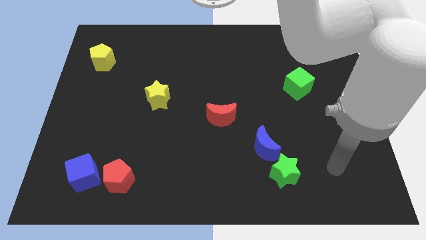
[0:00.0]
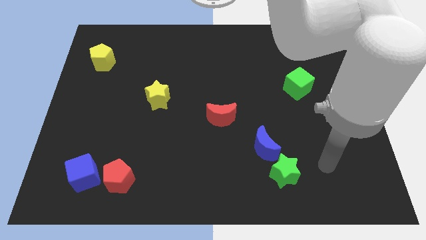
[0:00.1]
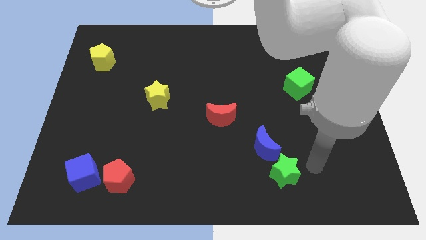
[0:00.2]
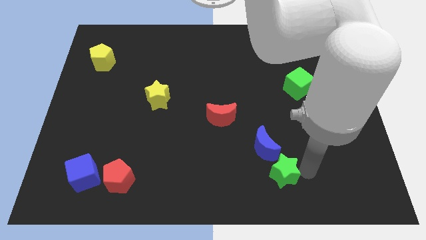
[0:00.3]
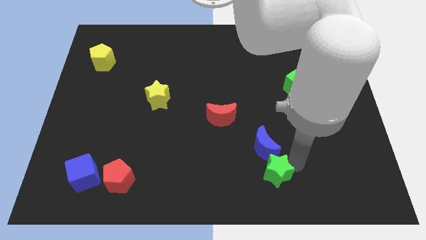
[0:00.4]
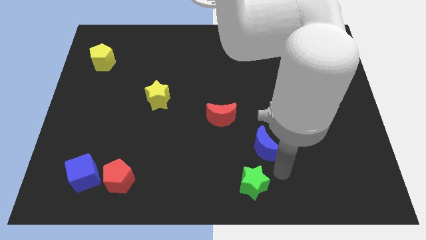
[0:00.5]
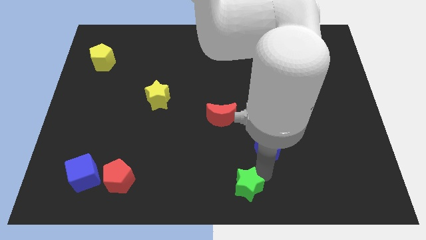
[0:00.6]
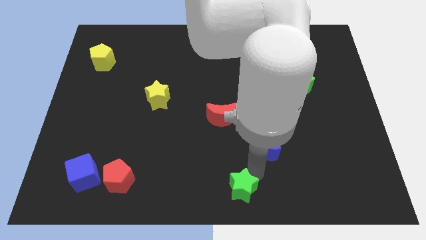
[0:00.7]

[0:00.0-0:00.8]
pull the blue moon apart from the green star

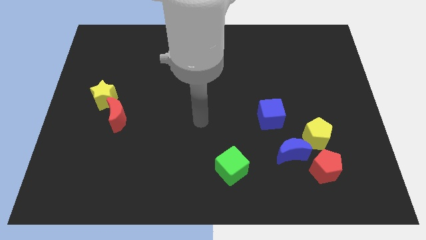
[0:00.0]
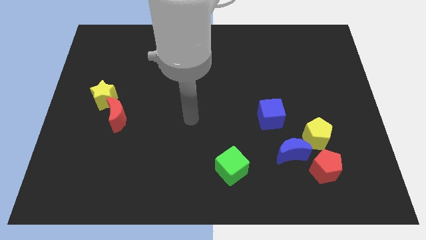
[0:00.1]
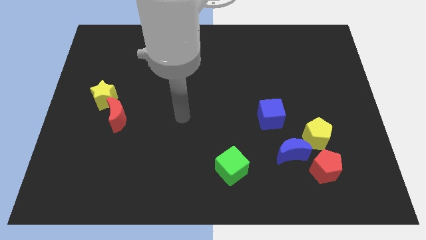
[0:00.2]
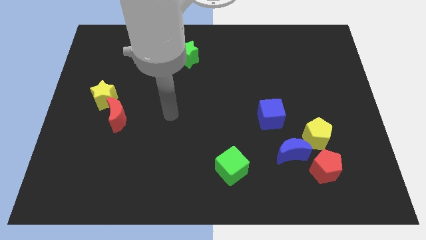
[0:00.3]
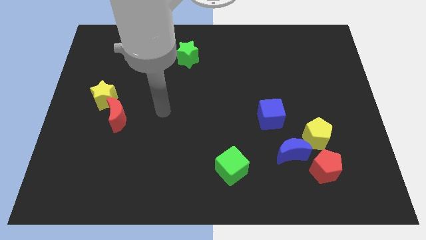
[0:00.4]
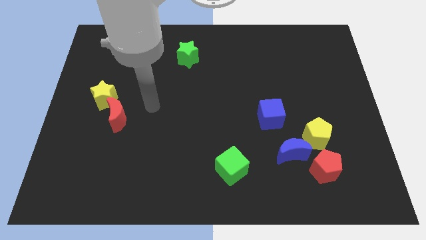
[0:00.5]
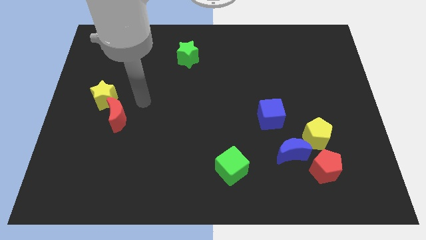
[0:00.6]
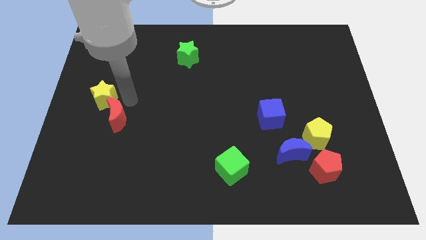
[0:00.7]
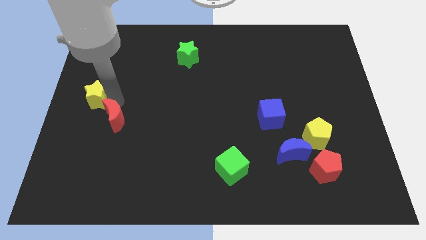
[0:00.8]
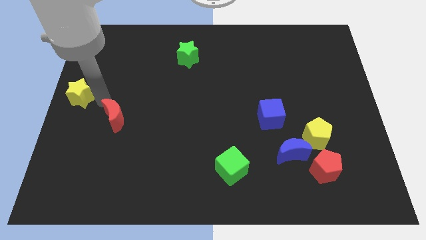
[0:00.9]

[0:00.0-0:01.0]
pull the red moon apart from the yellow star

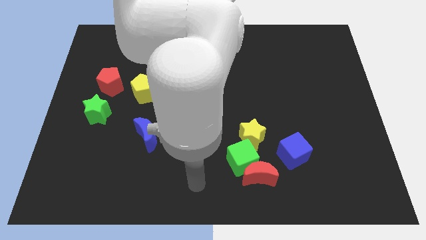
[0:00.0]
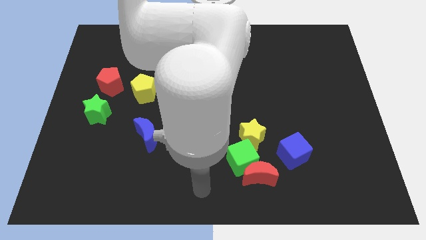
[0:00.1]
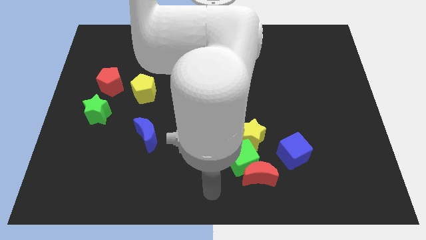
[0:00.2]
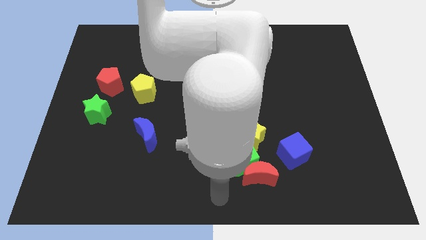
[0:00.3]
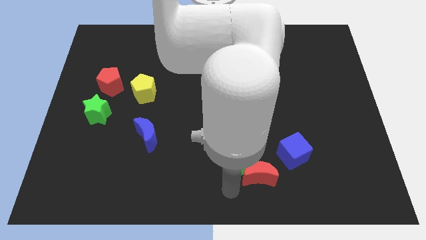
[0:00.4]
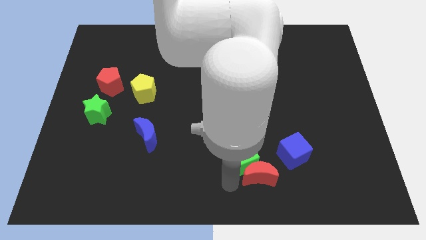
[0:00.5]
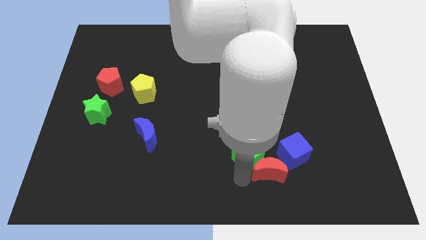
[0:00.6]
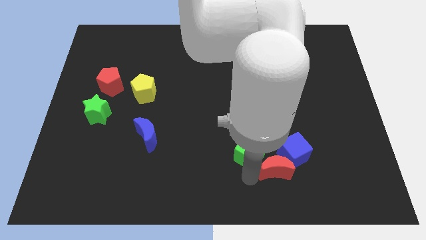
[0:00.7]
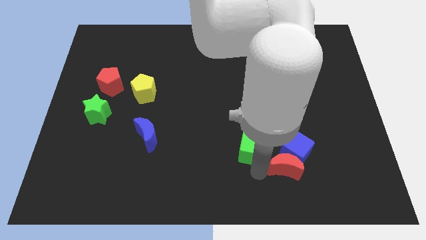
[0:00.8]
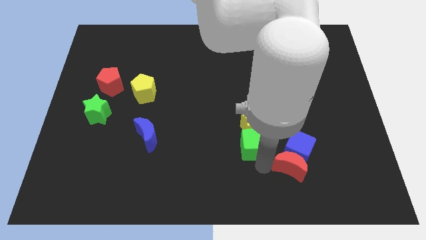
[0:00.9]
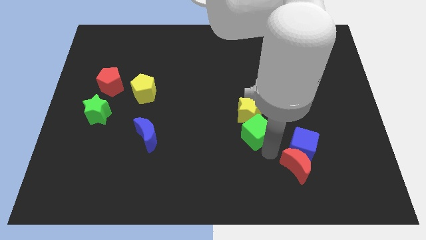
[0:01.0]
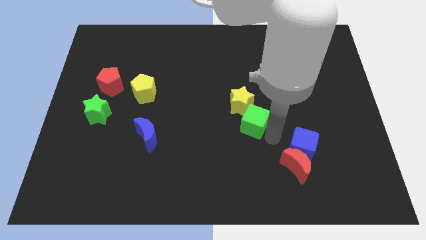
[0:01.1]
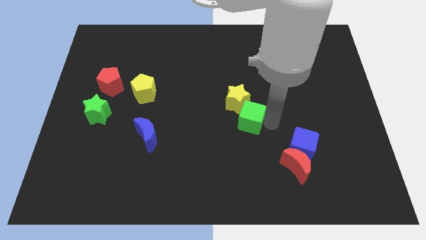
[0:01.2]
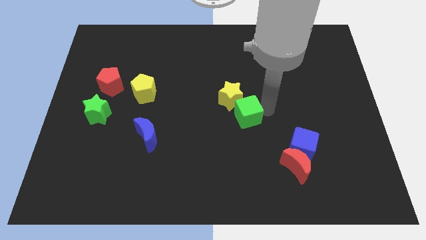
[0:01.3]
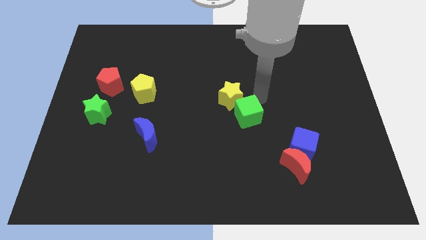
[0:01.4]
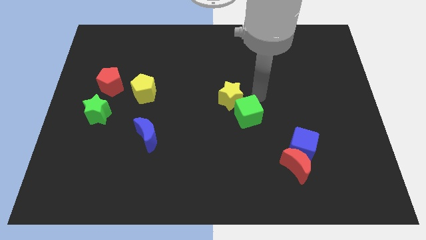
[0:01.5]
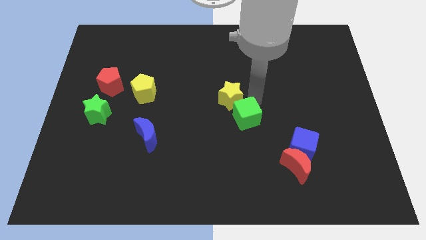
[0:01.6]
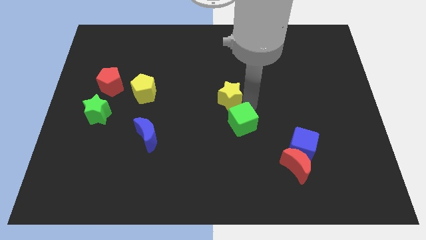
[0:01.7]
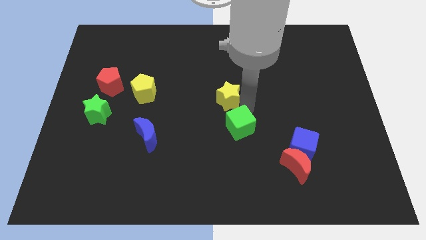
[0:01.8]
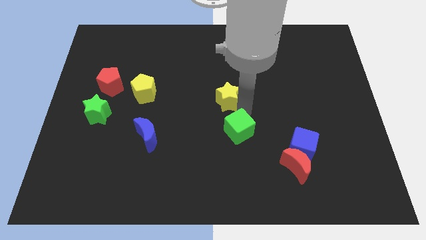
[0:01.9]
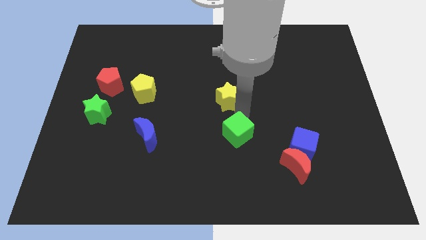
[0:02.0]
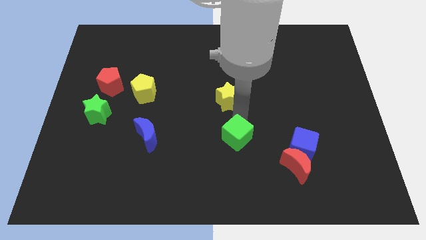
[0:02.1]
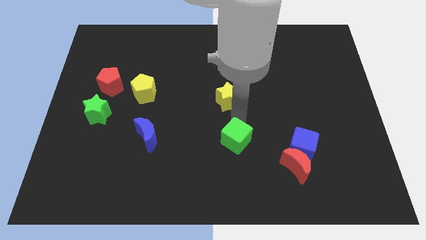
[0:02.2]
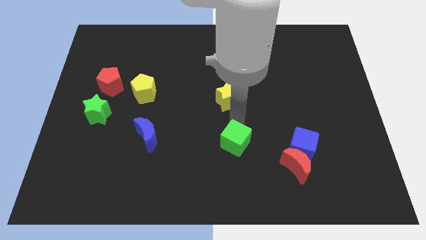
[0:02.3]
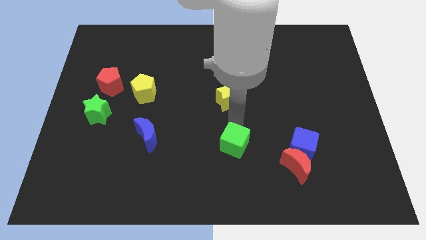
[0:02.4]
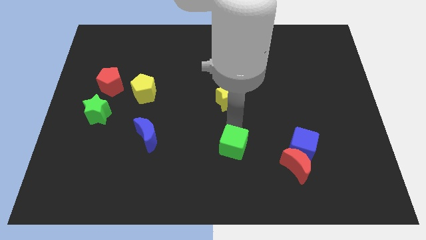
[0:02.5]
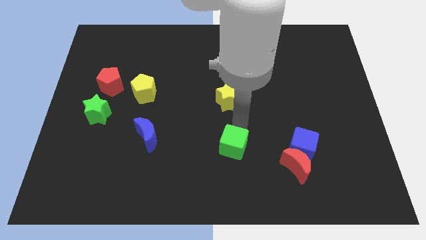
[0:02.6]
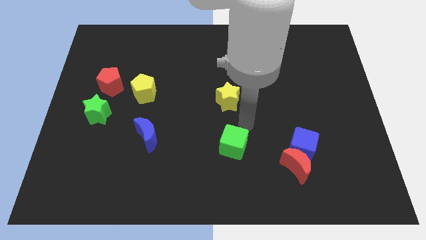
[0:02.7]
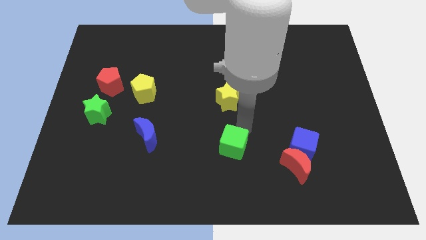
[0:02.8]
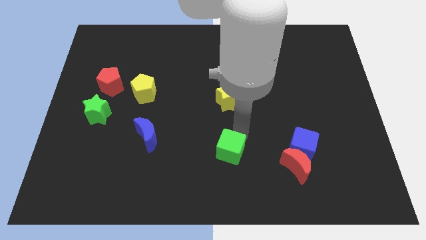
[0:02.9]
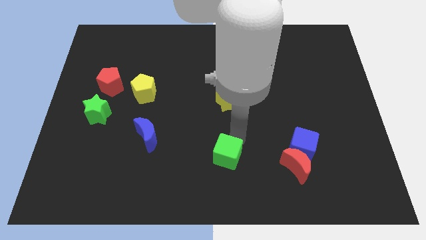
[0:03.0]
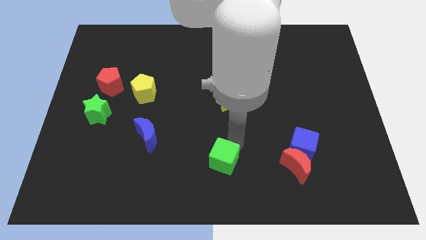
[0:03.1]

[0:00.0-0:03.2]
pull the green cube apart from the red moon and yellow star

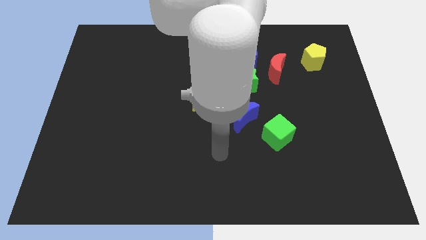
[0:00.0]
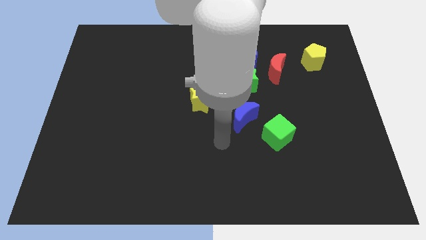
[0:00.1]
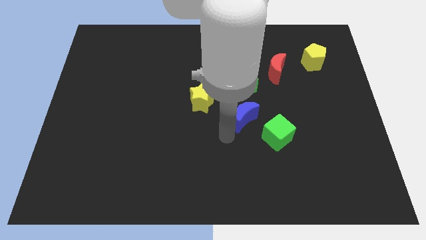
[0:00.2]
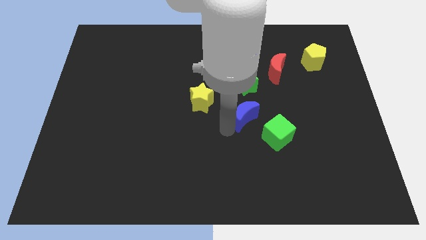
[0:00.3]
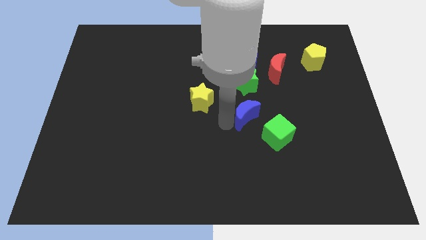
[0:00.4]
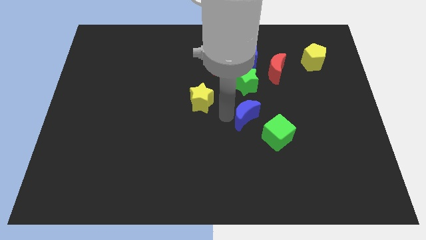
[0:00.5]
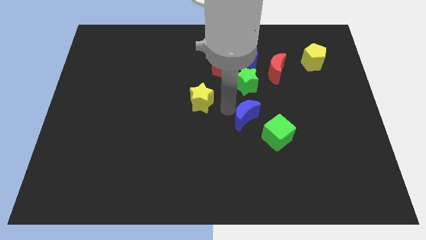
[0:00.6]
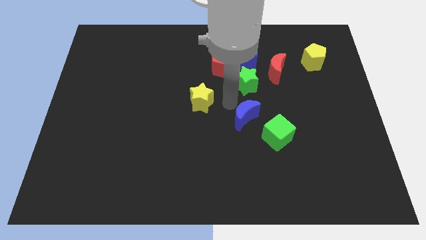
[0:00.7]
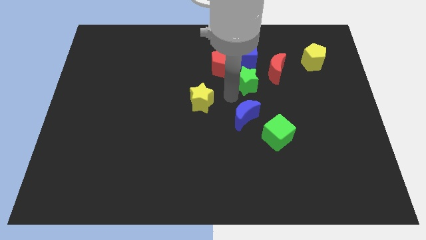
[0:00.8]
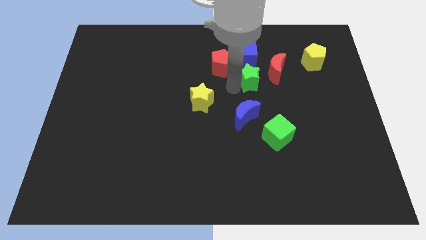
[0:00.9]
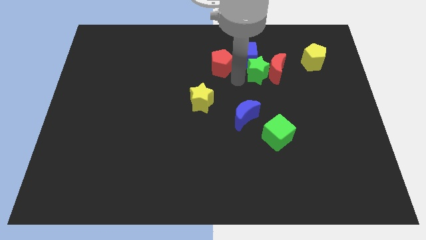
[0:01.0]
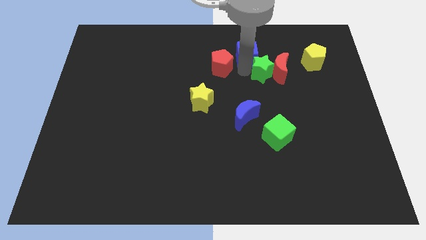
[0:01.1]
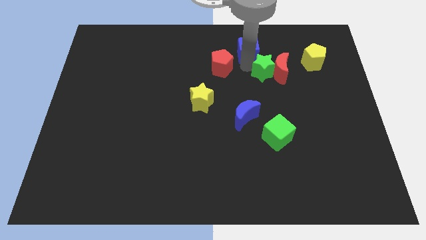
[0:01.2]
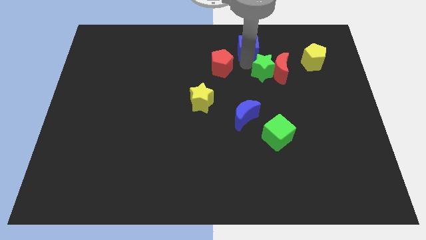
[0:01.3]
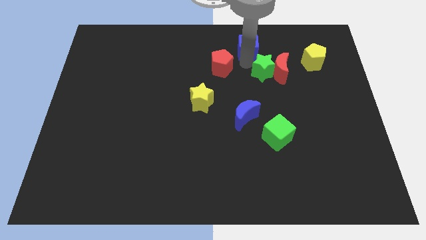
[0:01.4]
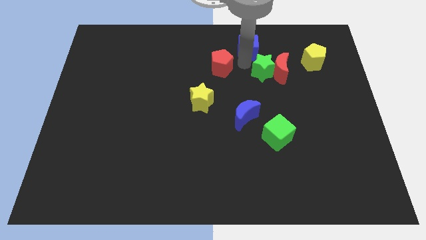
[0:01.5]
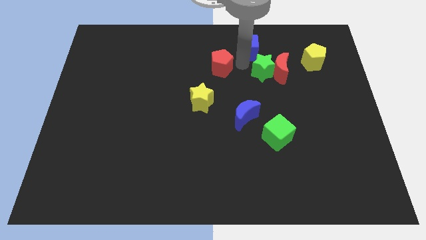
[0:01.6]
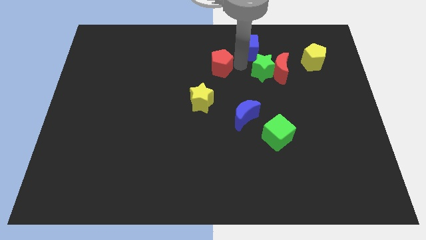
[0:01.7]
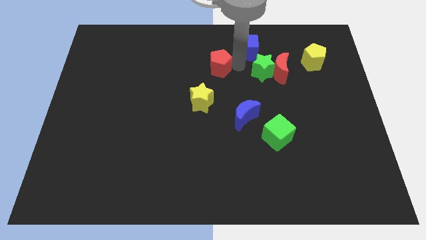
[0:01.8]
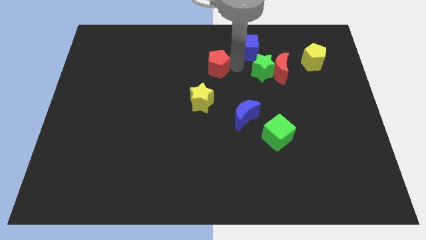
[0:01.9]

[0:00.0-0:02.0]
separate the red pentagon from the blue cube and green star

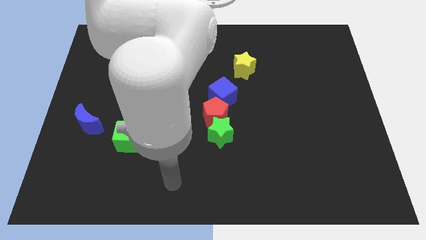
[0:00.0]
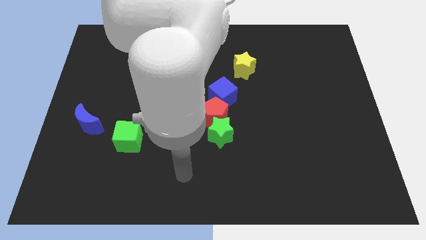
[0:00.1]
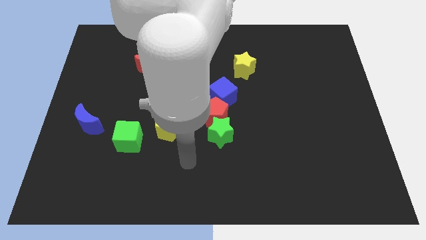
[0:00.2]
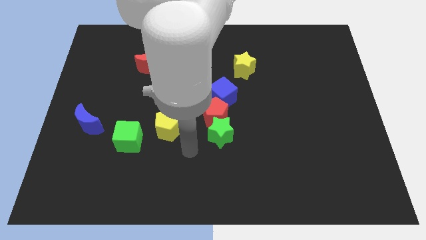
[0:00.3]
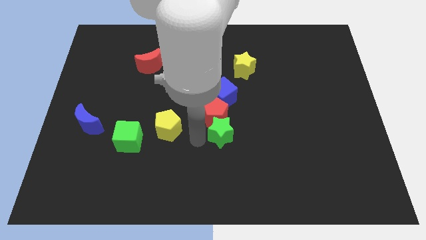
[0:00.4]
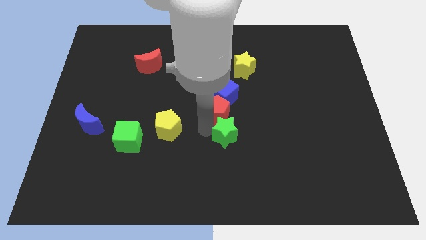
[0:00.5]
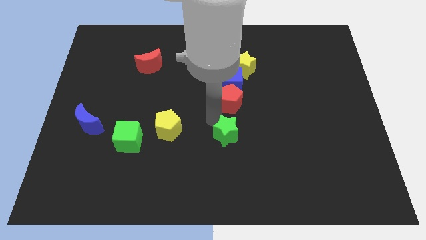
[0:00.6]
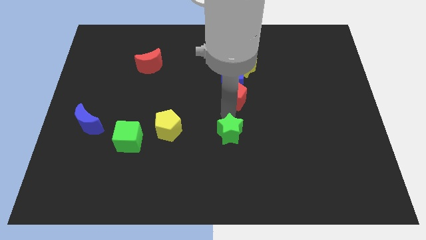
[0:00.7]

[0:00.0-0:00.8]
move the green star away from the red pentagon

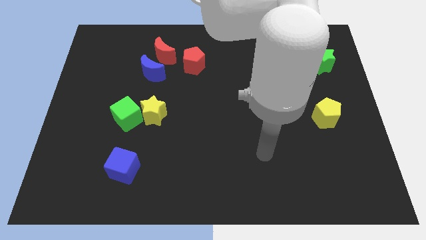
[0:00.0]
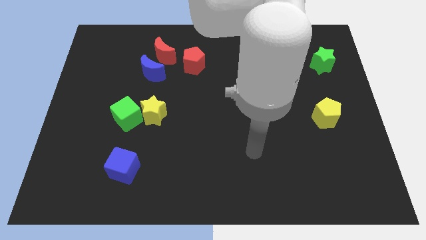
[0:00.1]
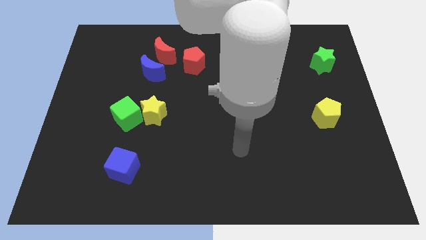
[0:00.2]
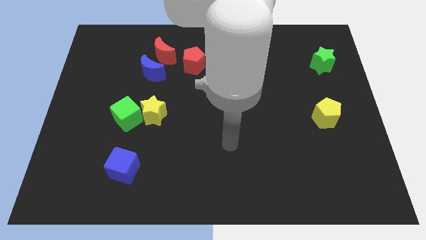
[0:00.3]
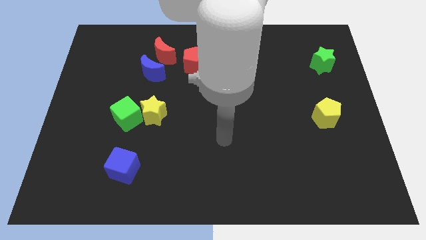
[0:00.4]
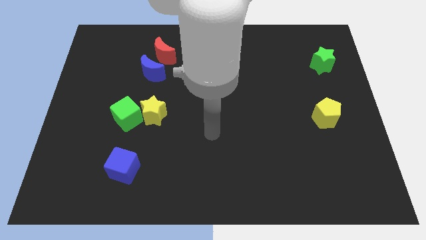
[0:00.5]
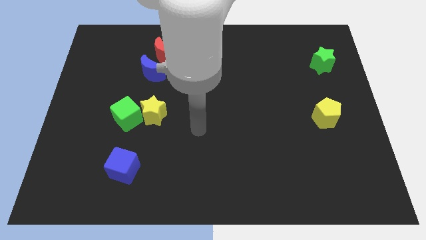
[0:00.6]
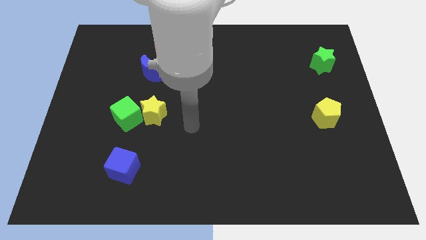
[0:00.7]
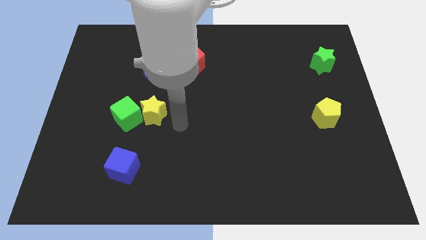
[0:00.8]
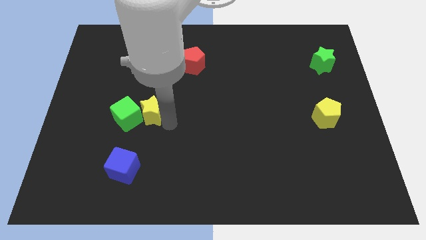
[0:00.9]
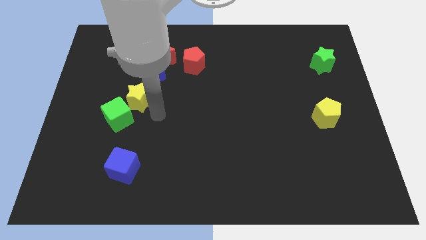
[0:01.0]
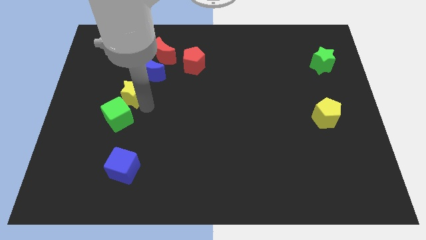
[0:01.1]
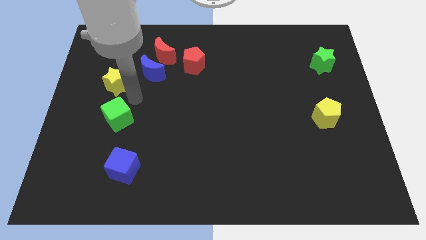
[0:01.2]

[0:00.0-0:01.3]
move the green cube away from the yellow star

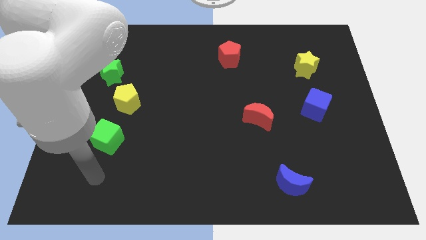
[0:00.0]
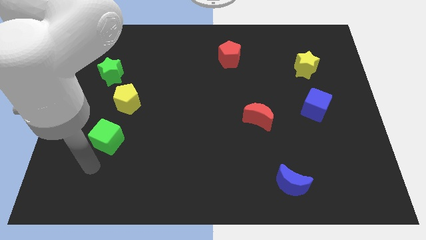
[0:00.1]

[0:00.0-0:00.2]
separate the green star from the yellow pentagon

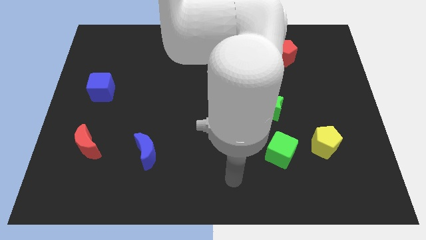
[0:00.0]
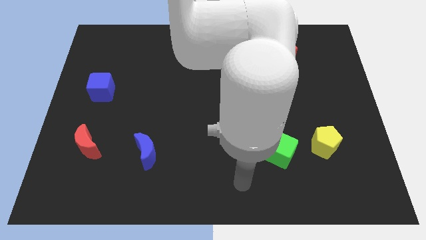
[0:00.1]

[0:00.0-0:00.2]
pull the green cube apart from the yellow pentagon

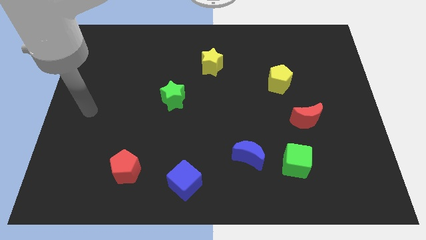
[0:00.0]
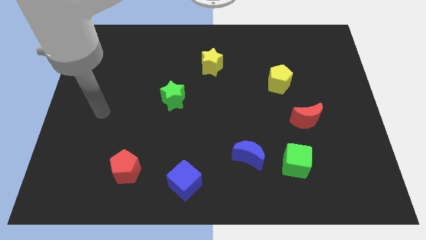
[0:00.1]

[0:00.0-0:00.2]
pull the blue moon apart from the green cube
